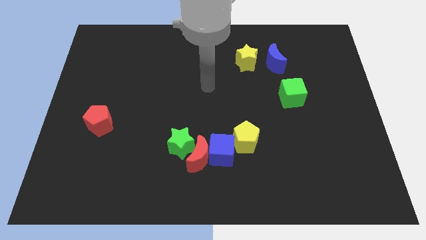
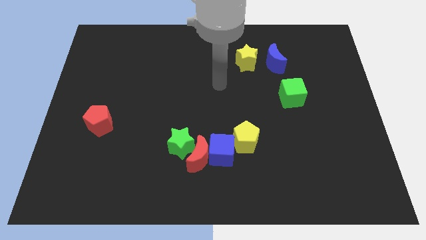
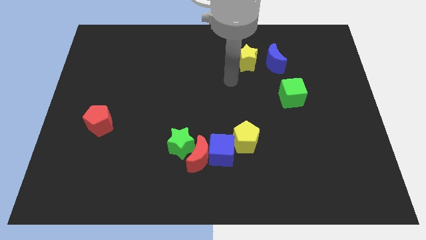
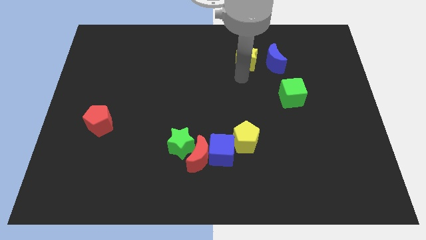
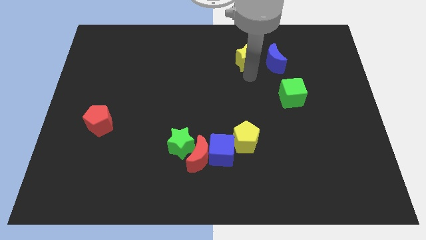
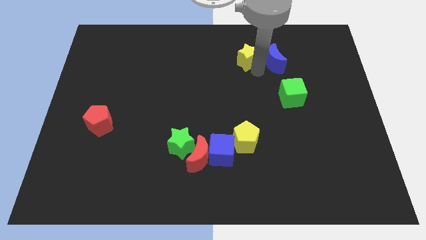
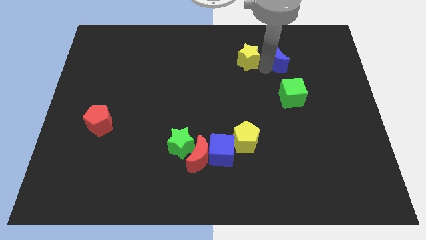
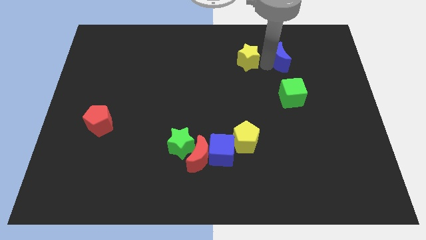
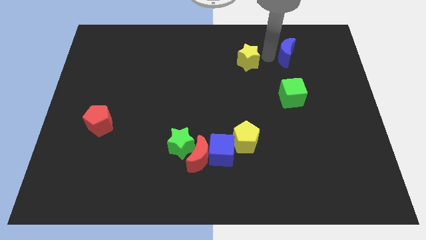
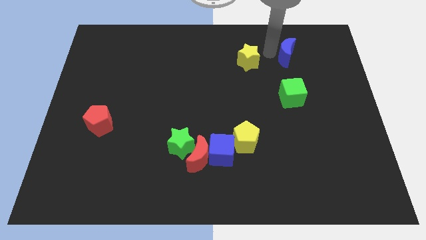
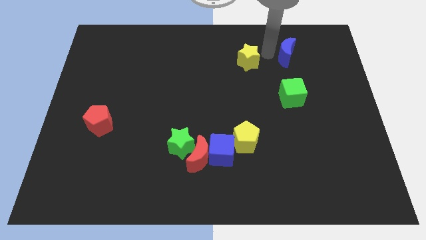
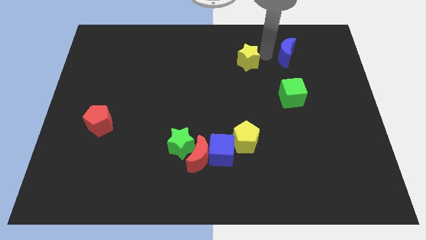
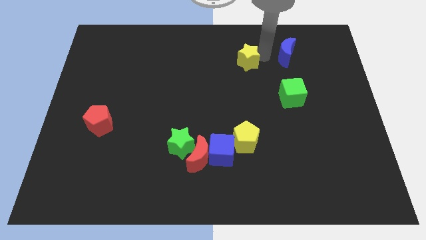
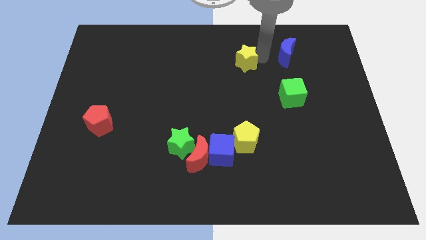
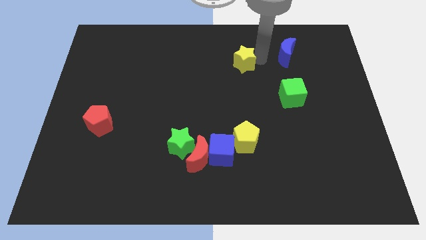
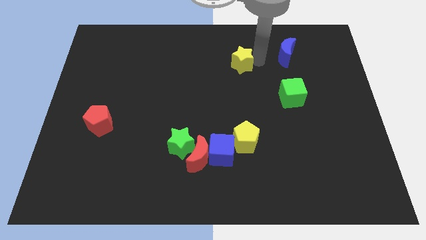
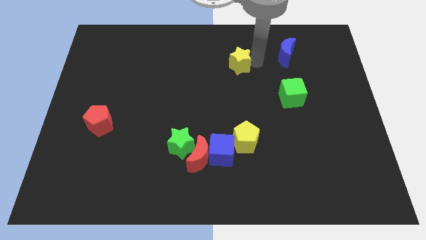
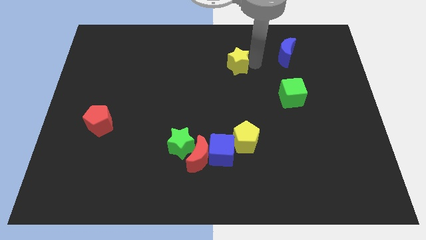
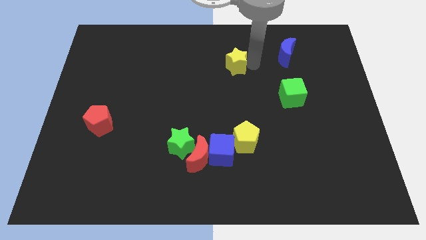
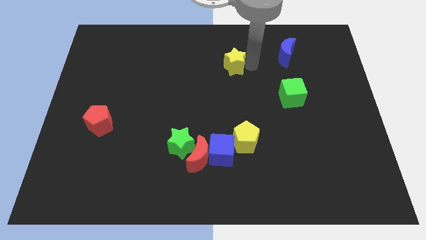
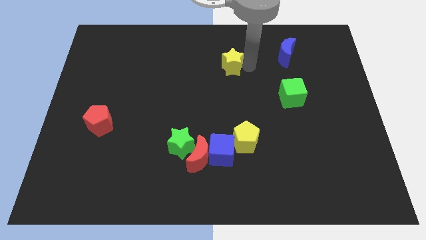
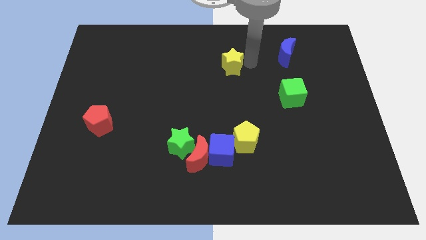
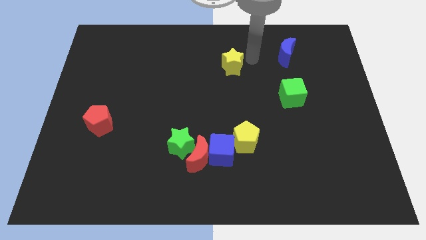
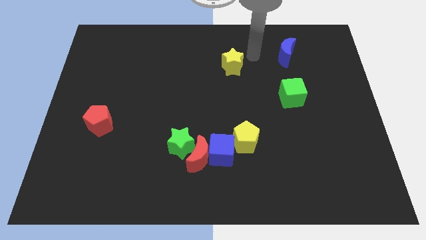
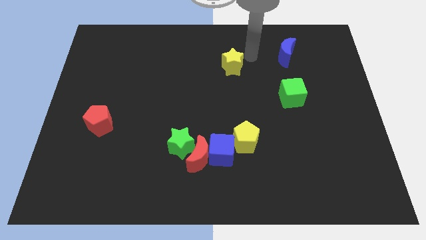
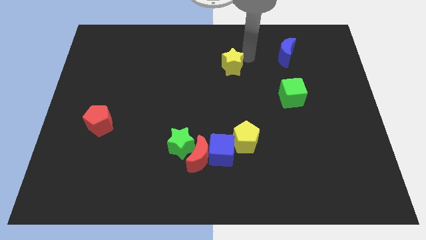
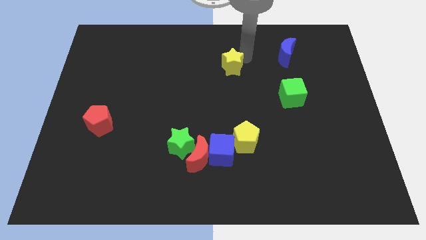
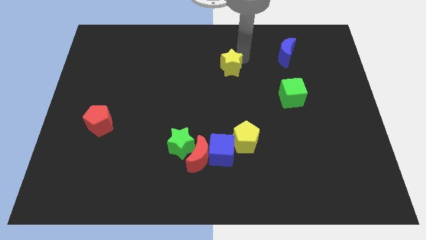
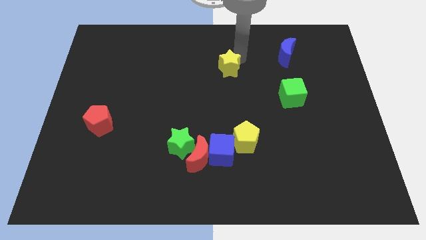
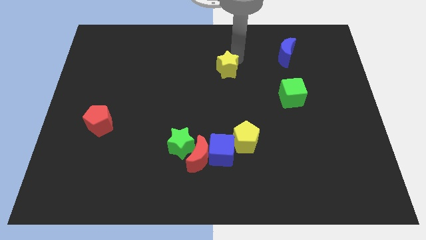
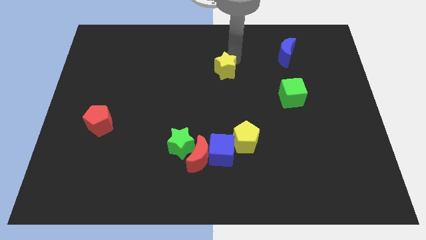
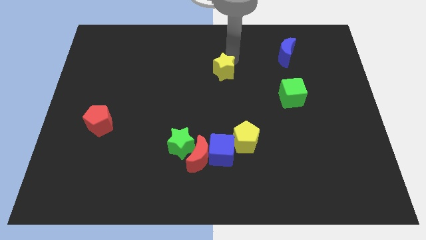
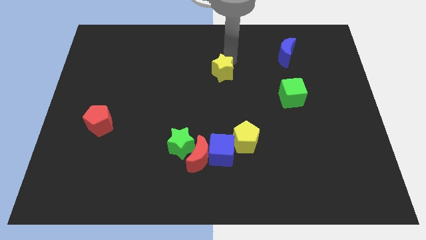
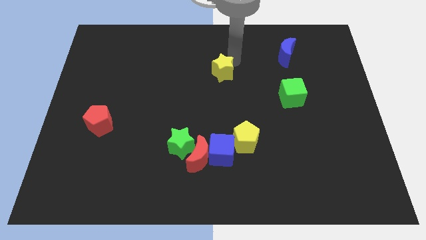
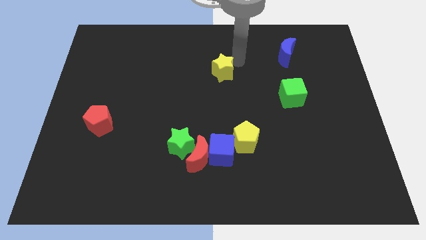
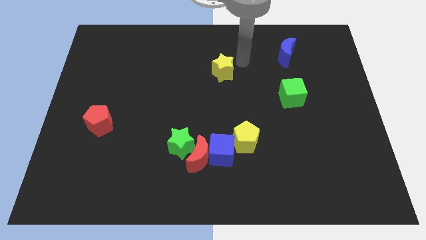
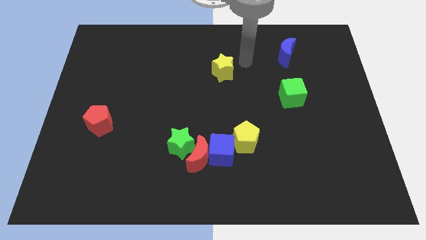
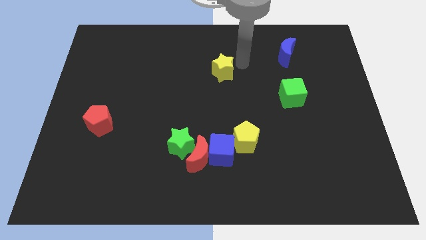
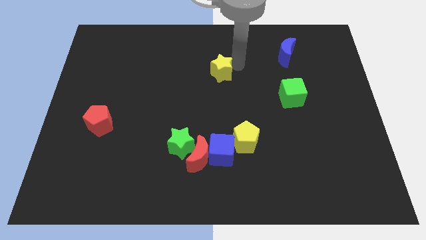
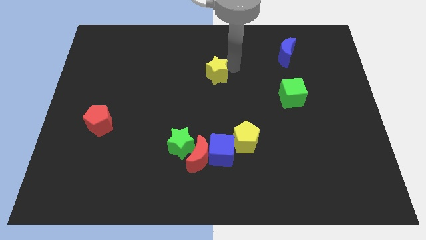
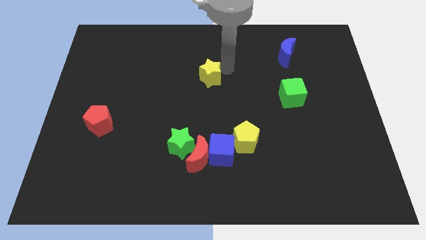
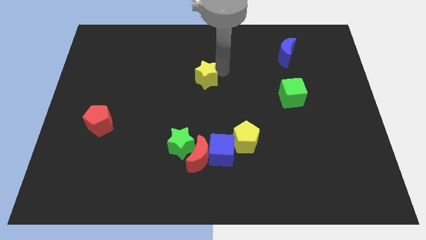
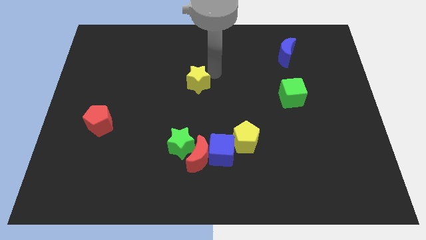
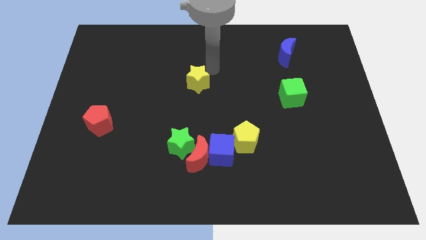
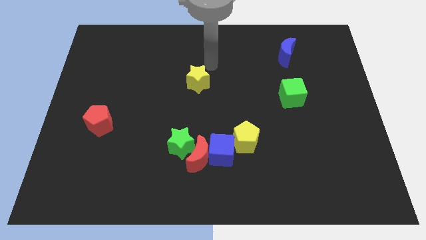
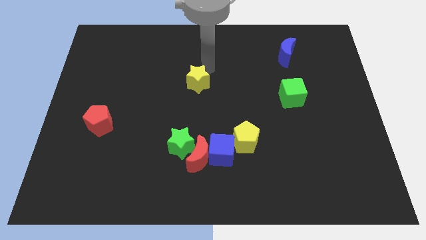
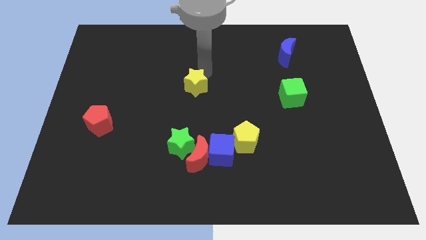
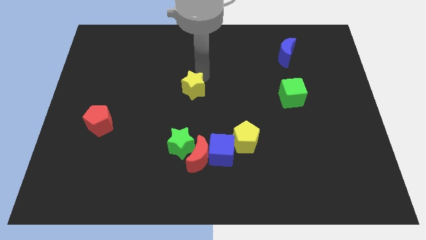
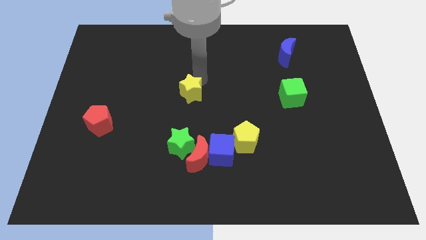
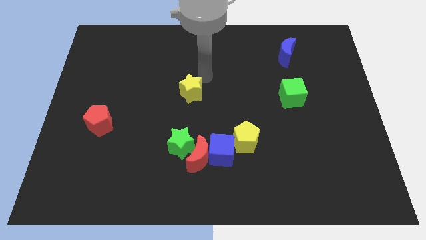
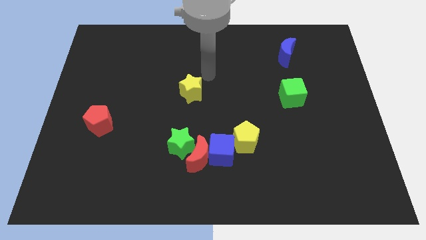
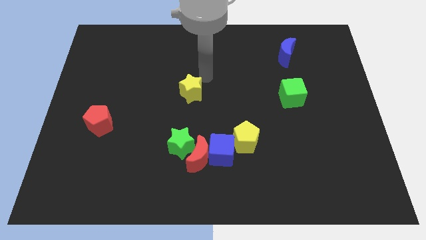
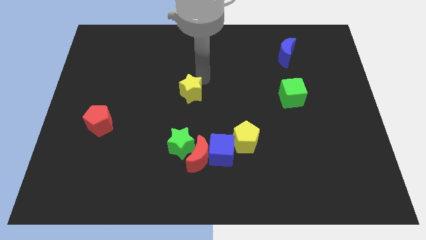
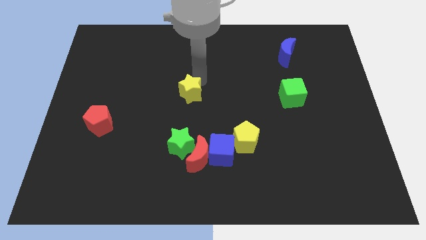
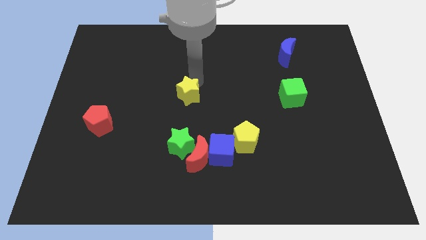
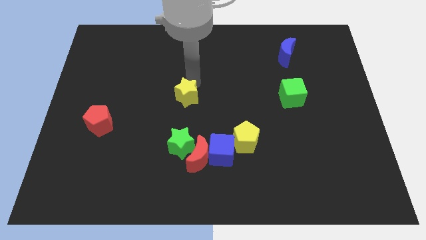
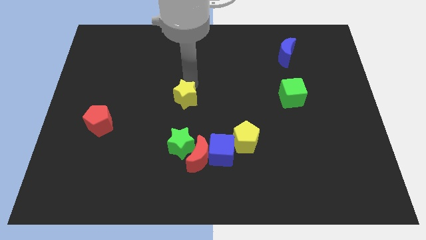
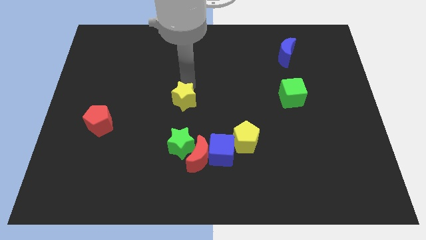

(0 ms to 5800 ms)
slide the yellow star down and to the left

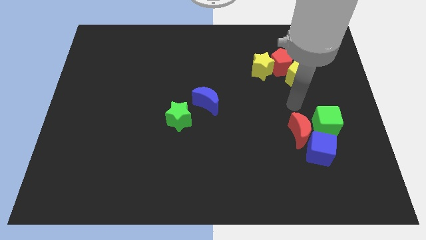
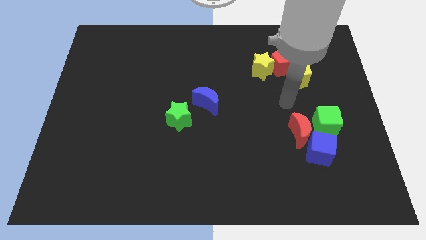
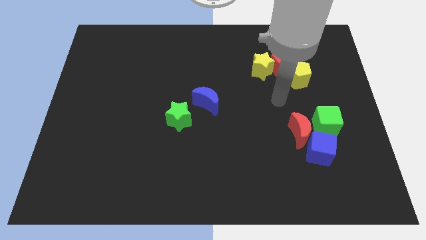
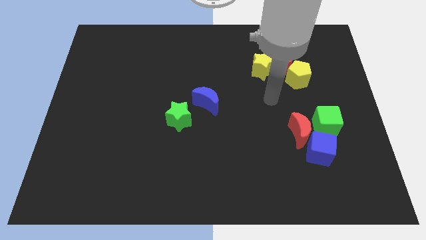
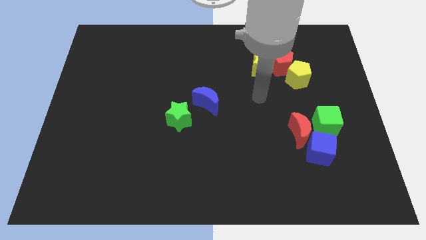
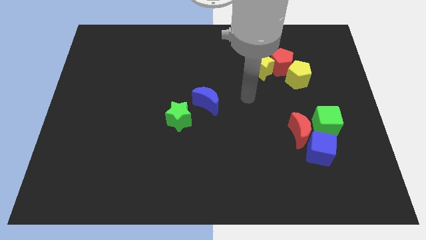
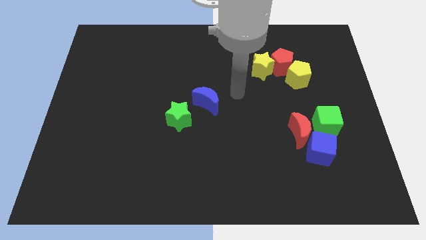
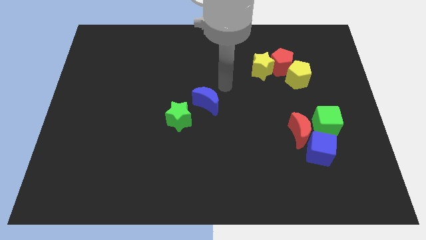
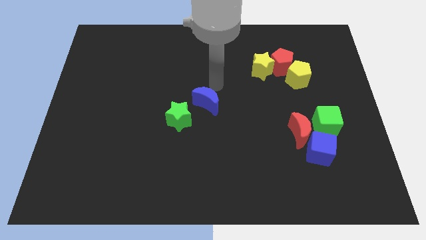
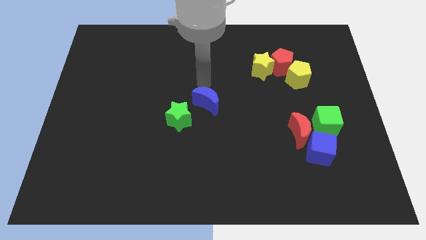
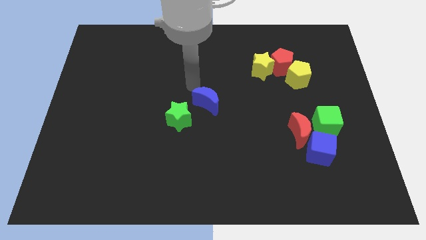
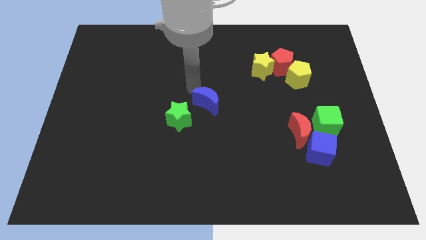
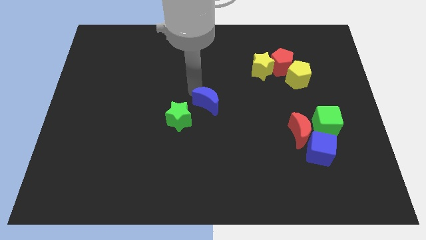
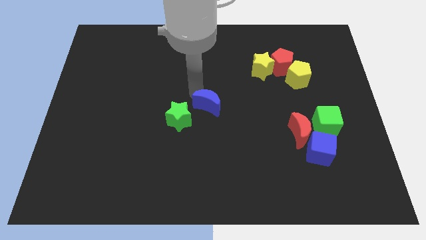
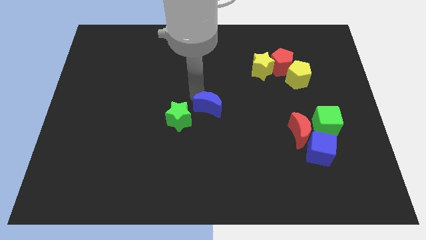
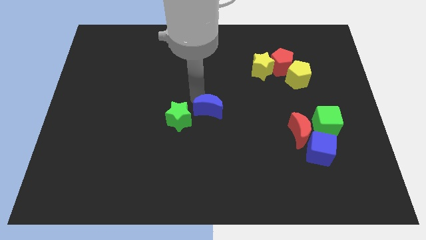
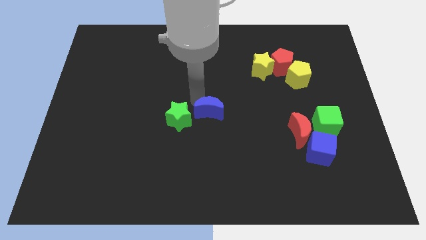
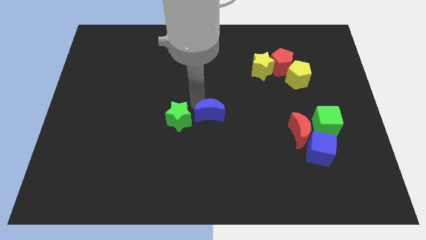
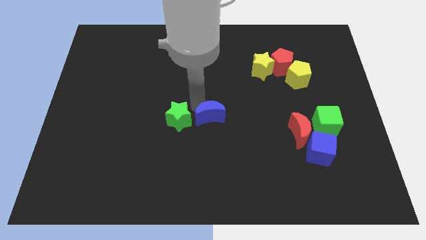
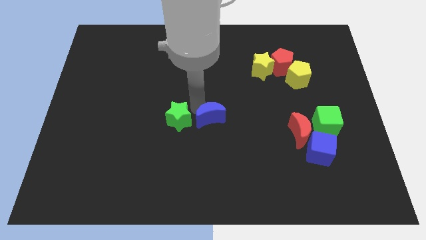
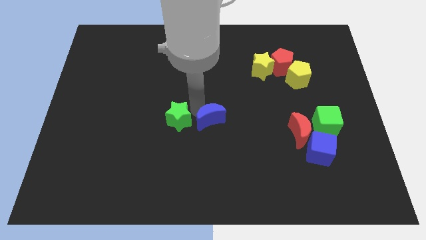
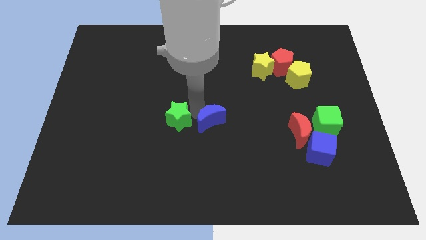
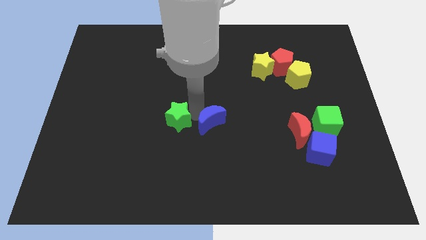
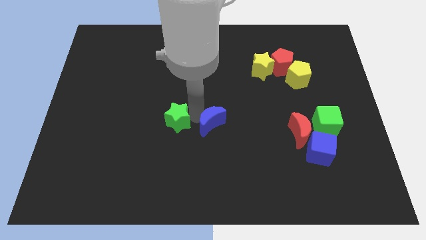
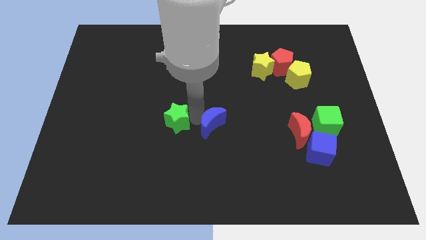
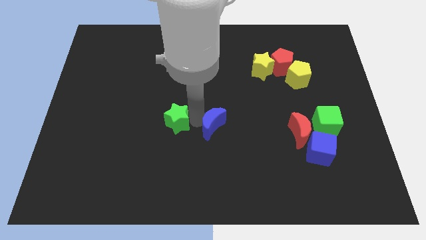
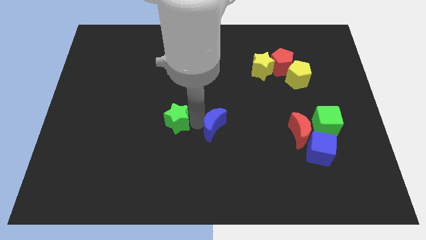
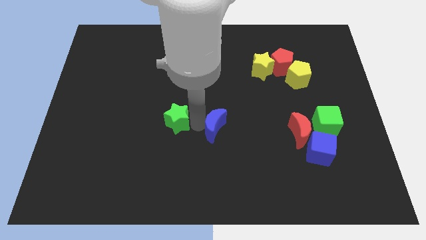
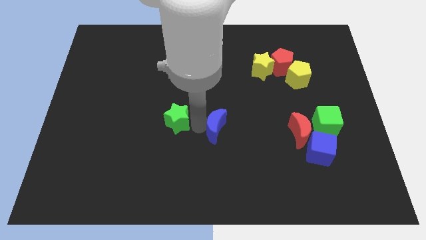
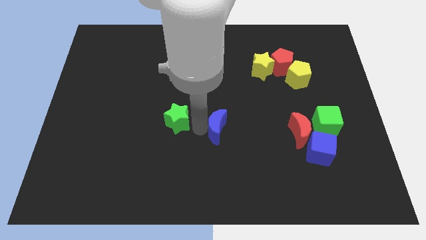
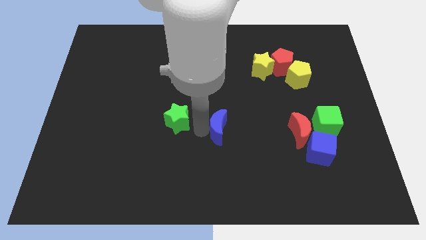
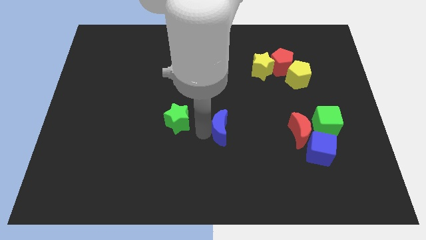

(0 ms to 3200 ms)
push the blue moon a little down and right diagonally
